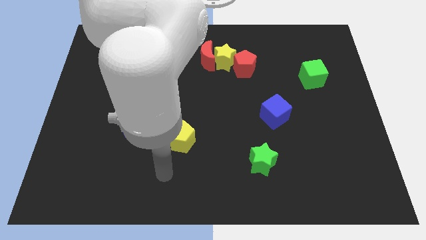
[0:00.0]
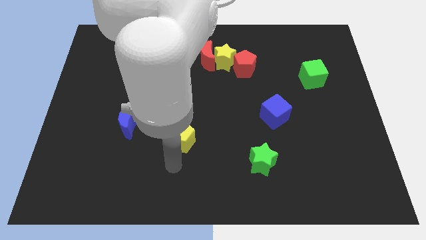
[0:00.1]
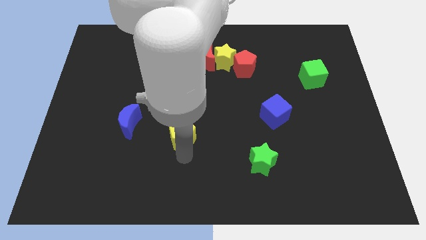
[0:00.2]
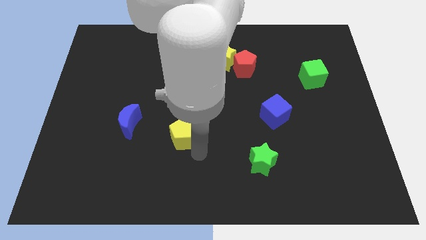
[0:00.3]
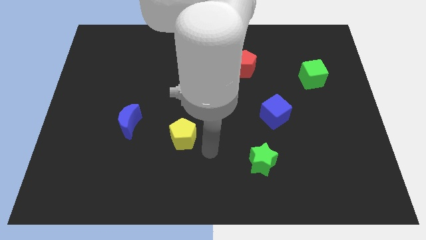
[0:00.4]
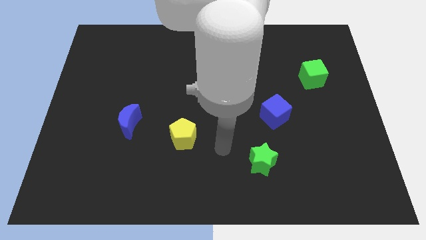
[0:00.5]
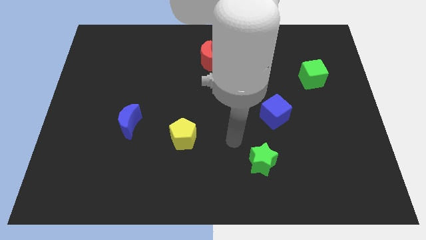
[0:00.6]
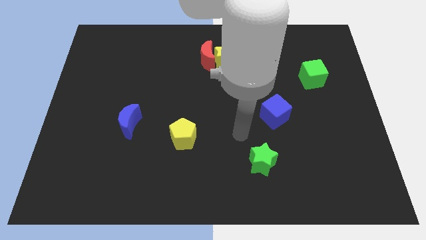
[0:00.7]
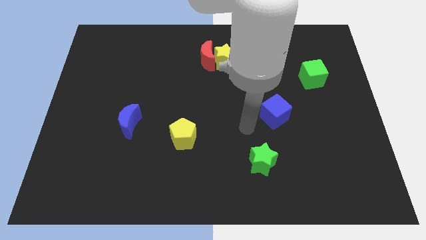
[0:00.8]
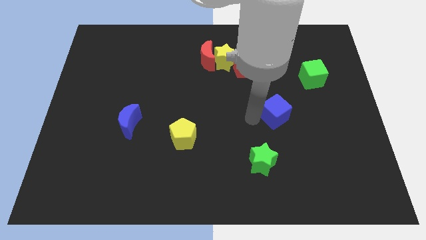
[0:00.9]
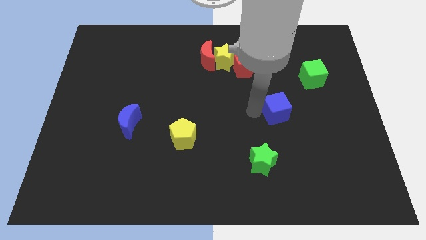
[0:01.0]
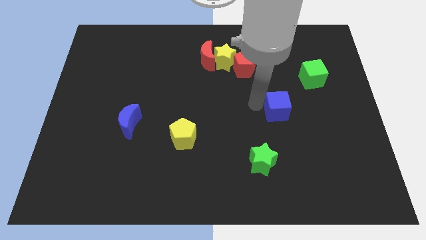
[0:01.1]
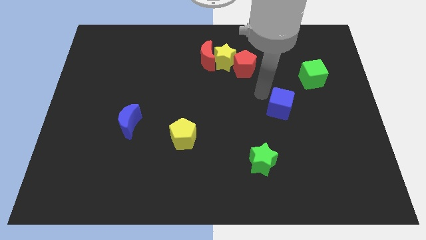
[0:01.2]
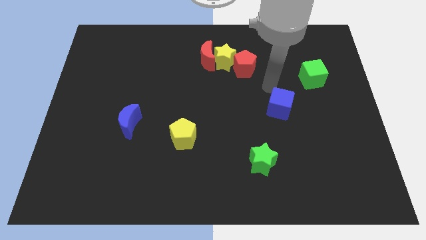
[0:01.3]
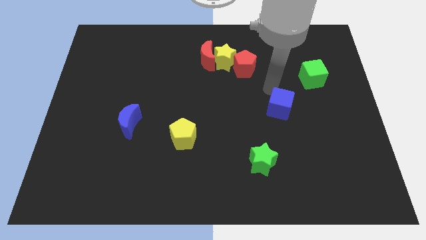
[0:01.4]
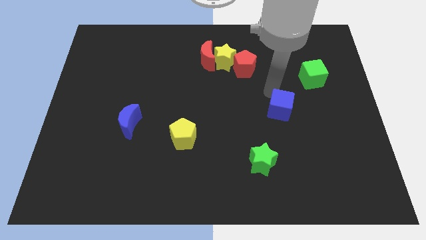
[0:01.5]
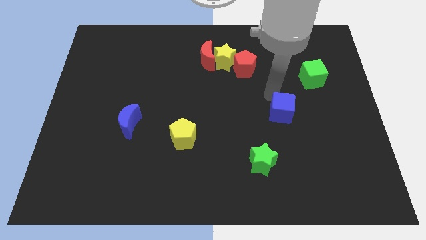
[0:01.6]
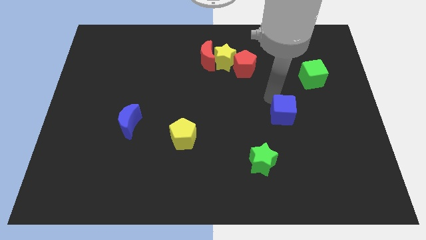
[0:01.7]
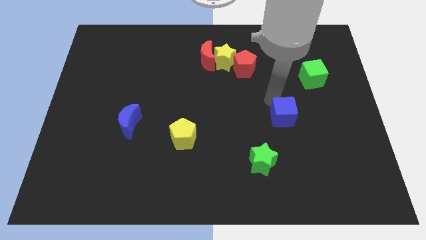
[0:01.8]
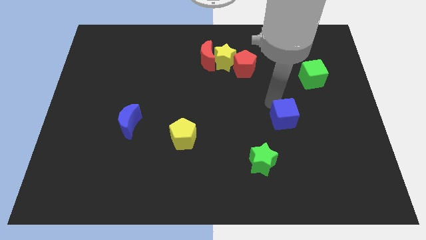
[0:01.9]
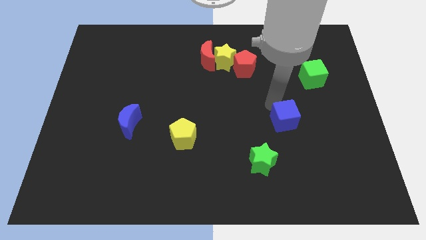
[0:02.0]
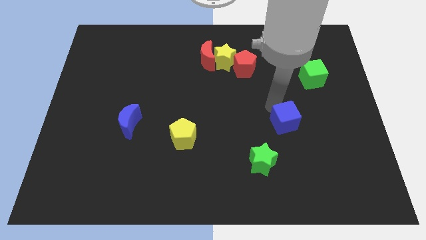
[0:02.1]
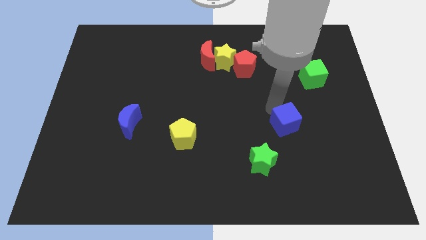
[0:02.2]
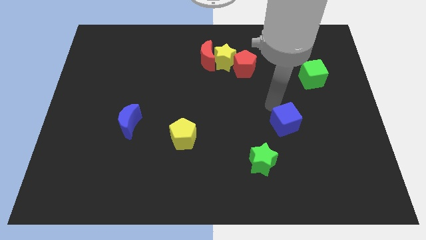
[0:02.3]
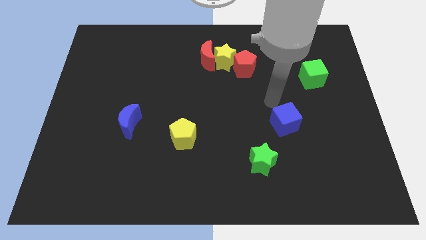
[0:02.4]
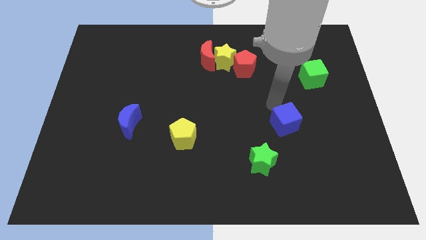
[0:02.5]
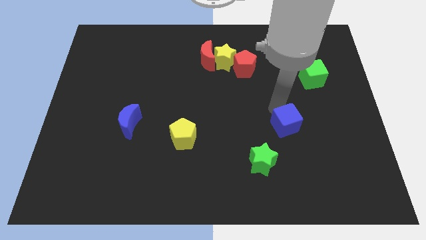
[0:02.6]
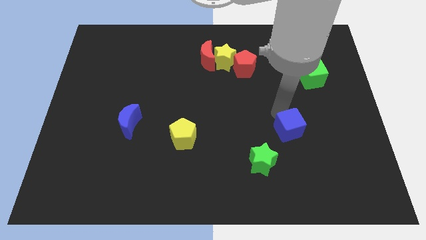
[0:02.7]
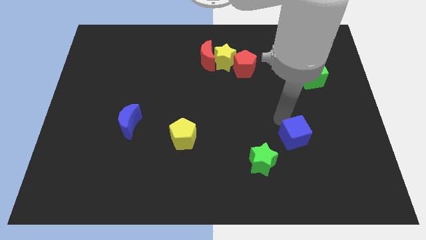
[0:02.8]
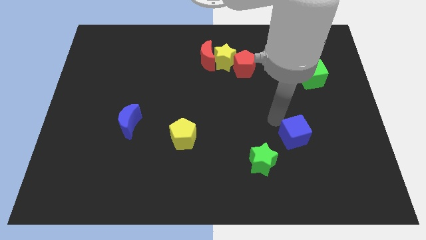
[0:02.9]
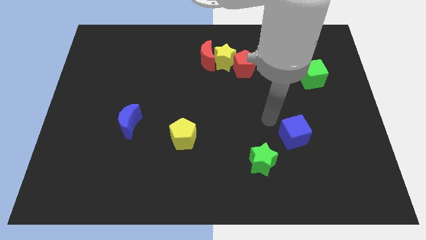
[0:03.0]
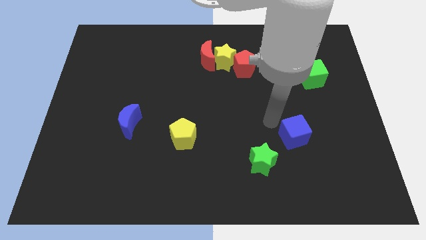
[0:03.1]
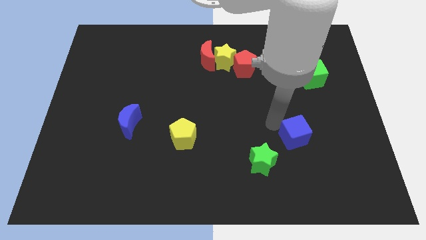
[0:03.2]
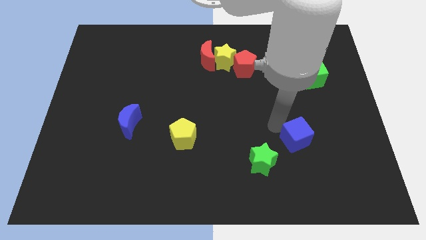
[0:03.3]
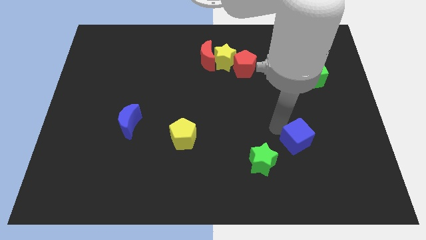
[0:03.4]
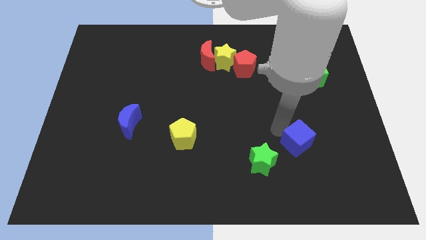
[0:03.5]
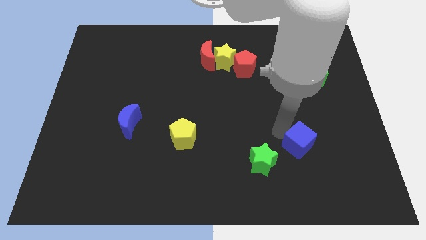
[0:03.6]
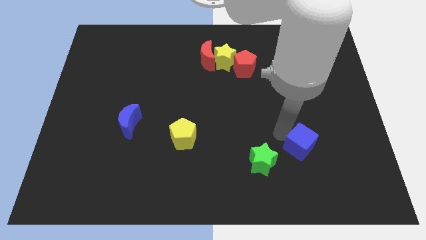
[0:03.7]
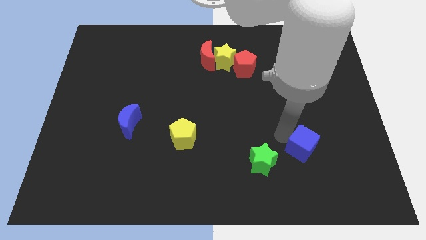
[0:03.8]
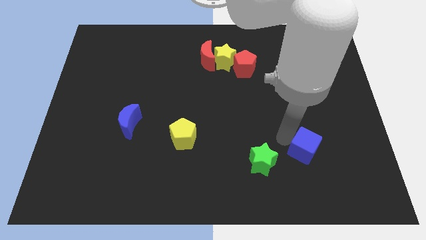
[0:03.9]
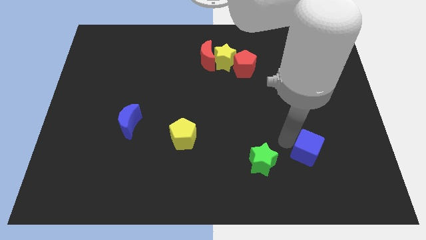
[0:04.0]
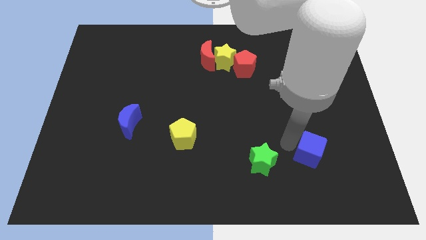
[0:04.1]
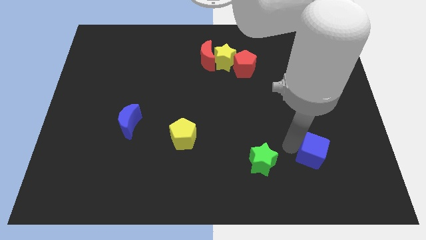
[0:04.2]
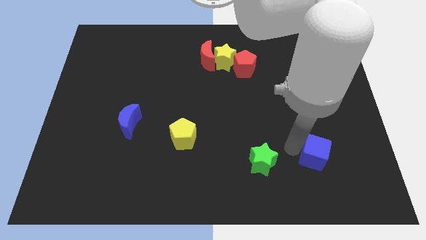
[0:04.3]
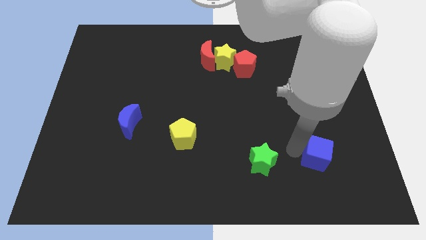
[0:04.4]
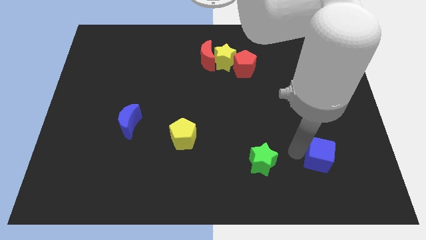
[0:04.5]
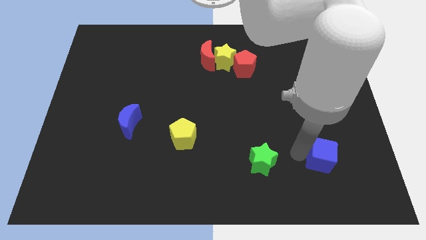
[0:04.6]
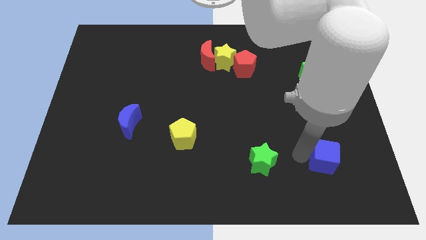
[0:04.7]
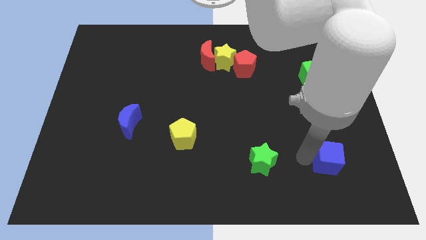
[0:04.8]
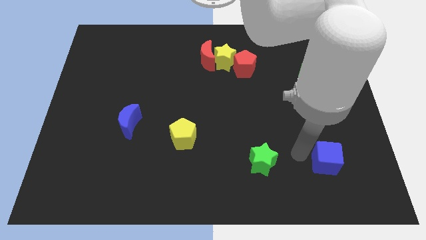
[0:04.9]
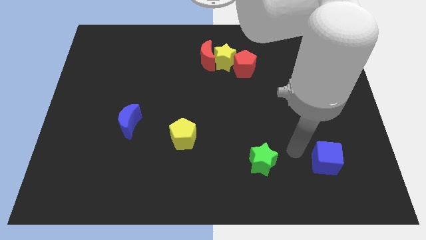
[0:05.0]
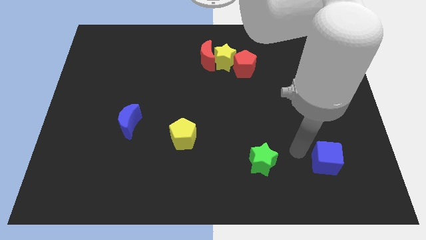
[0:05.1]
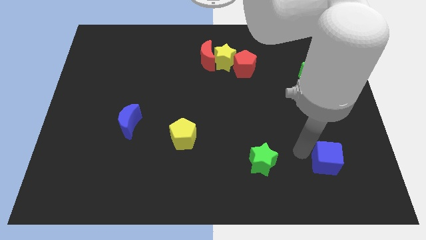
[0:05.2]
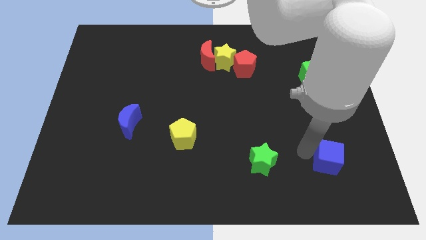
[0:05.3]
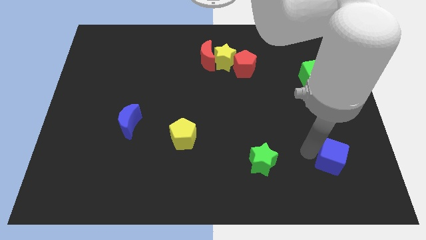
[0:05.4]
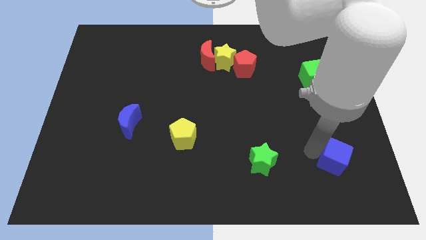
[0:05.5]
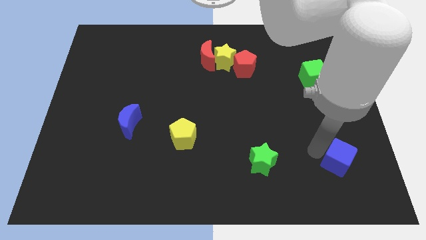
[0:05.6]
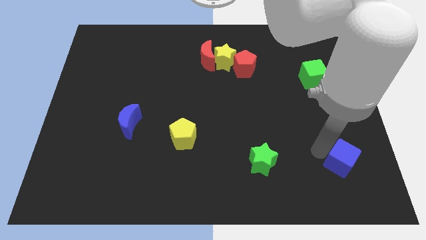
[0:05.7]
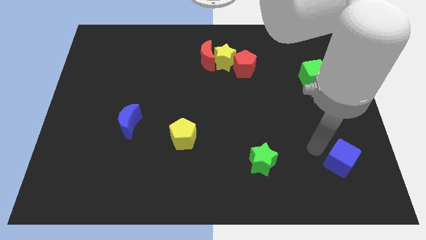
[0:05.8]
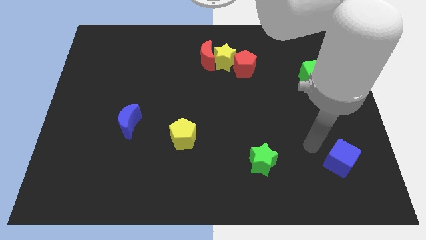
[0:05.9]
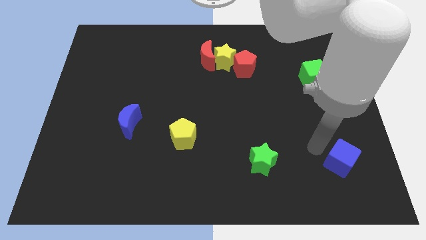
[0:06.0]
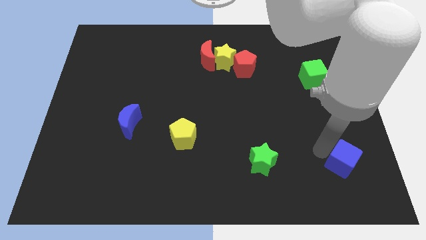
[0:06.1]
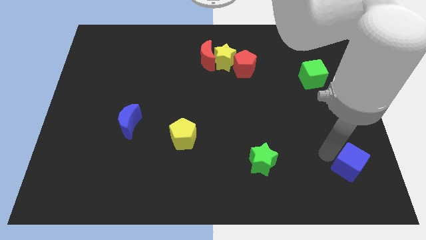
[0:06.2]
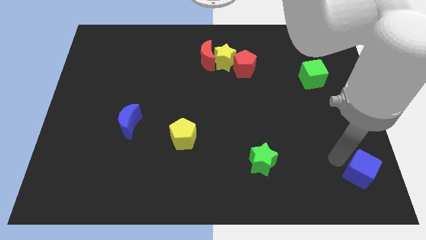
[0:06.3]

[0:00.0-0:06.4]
push the blue cube to the bottom right of the board
